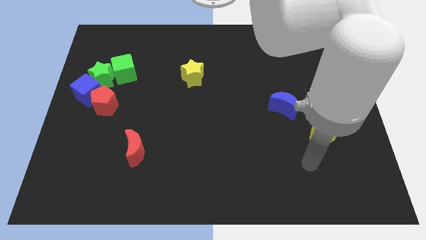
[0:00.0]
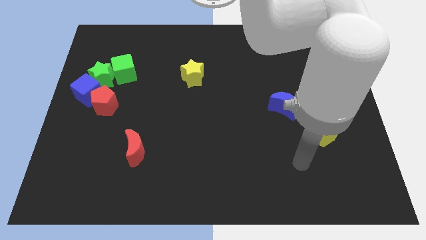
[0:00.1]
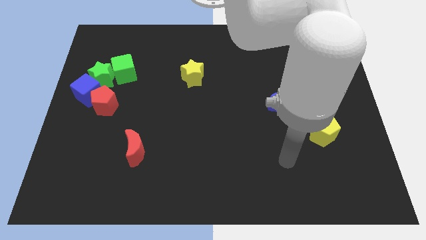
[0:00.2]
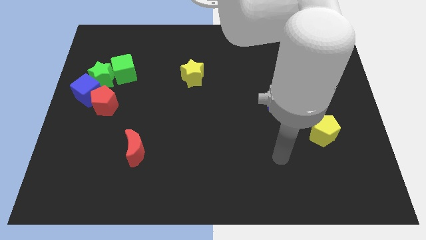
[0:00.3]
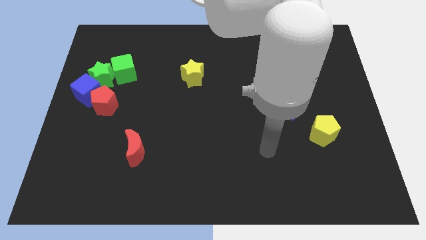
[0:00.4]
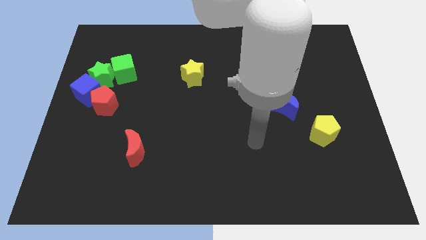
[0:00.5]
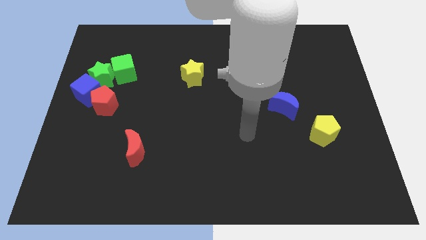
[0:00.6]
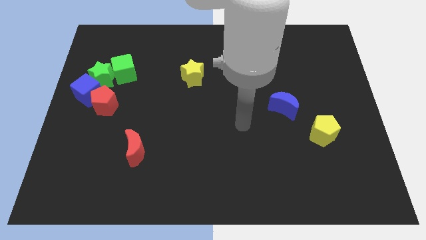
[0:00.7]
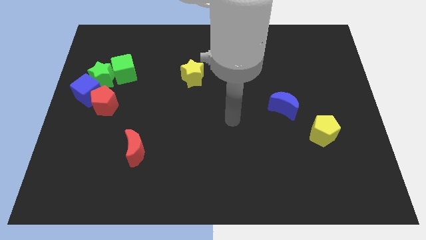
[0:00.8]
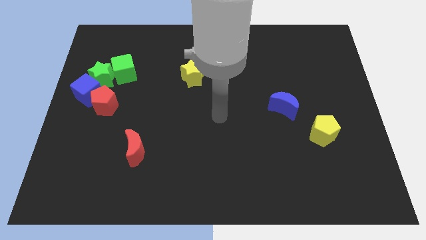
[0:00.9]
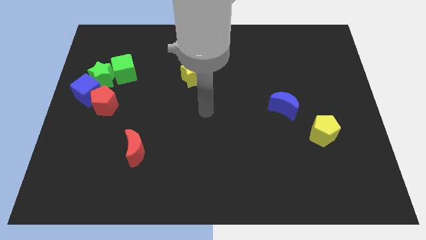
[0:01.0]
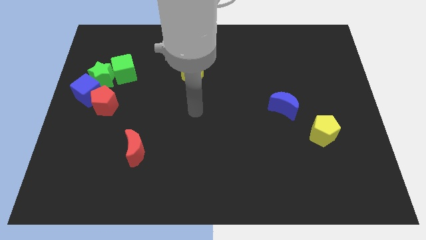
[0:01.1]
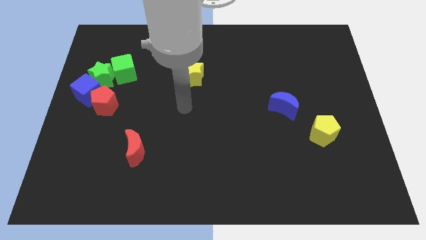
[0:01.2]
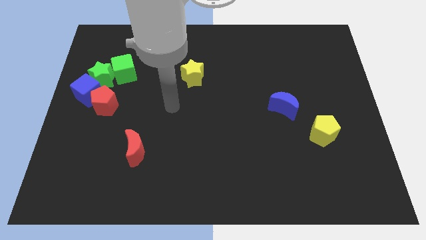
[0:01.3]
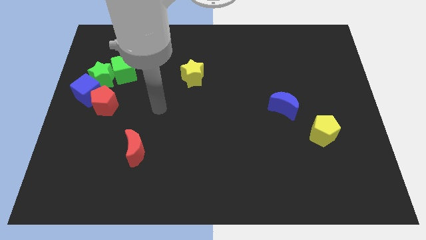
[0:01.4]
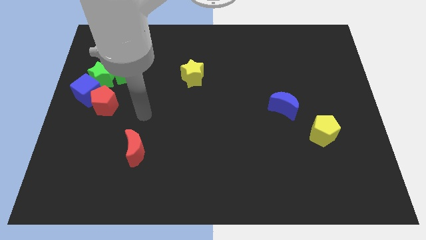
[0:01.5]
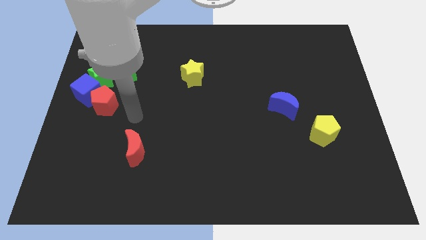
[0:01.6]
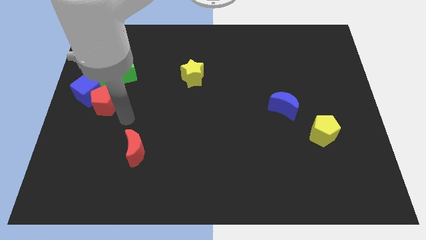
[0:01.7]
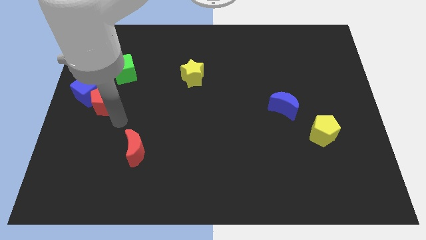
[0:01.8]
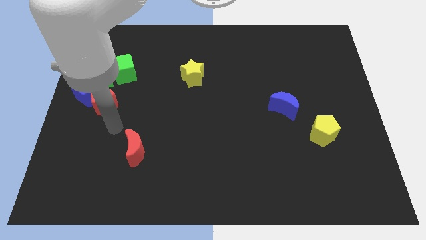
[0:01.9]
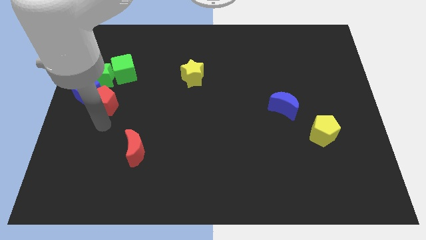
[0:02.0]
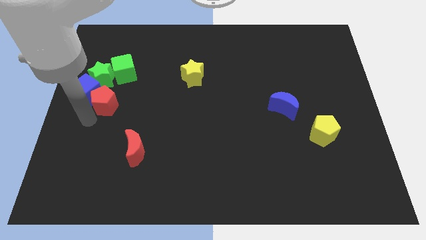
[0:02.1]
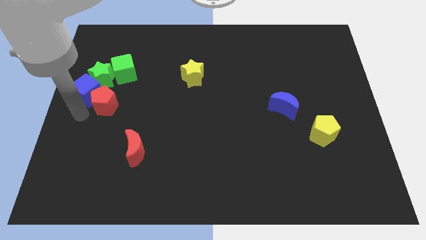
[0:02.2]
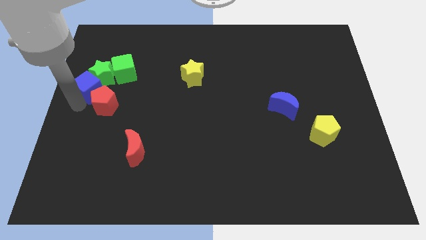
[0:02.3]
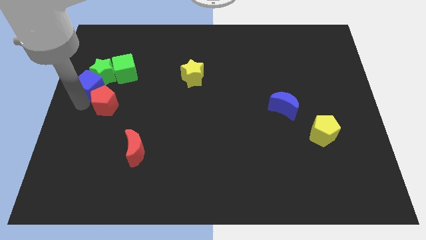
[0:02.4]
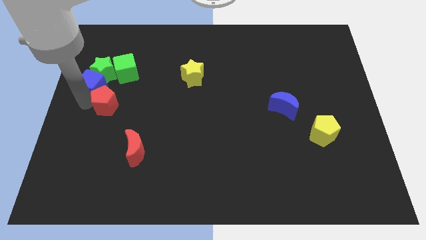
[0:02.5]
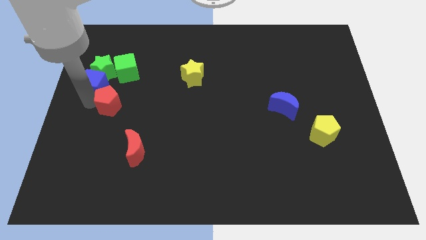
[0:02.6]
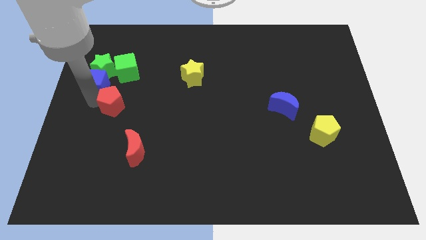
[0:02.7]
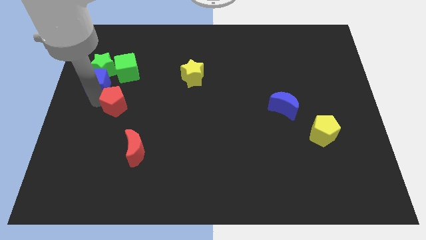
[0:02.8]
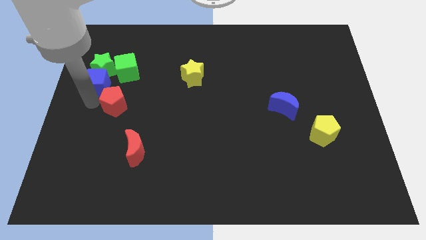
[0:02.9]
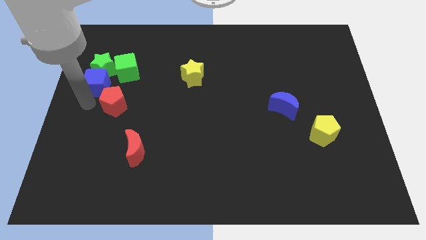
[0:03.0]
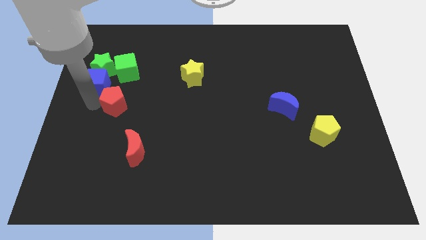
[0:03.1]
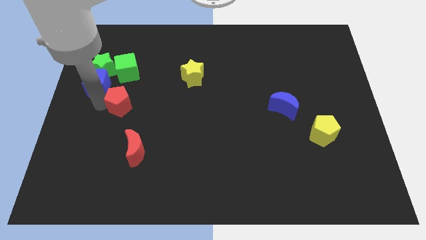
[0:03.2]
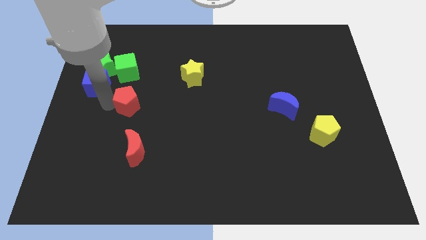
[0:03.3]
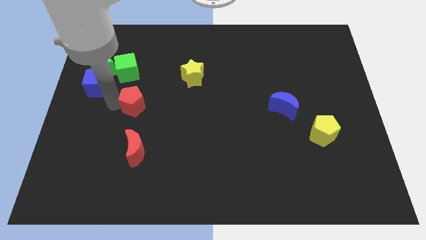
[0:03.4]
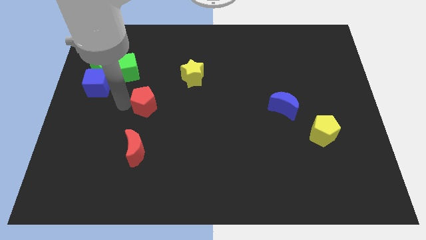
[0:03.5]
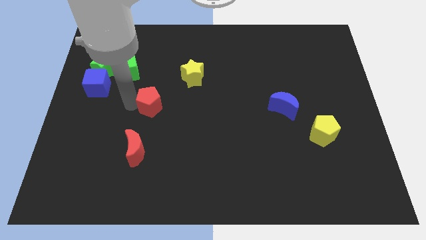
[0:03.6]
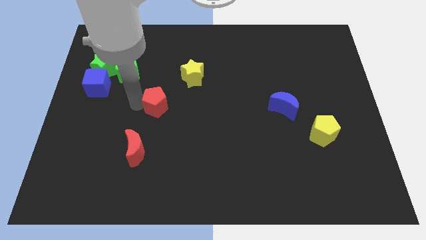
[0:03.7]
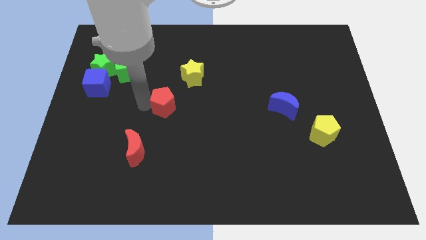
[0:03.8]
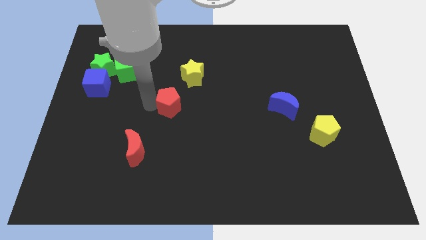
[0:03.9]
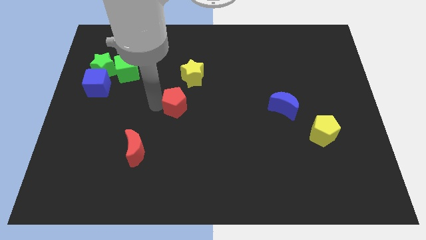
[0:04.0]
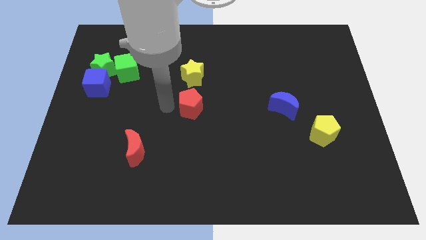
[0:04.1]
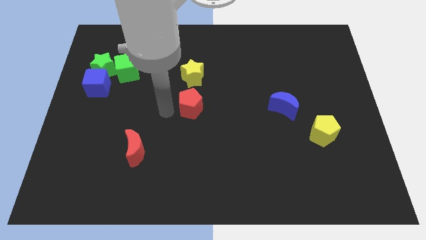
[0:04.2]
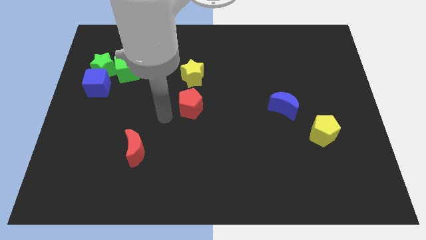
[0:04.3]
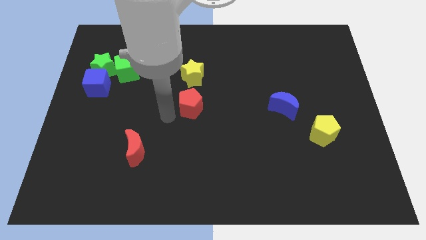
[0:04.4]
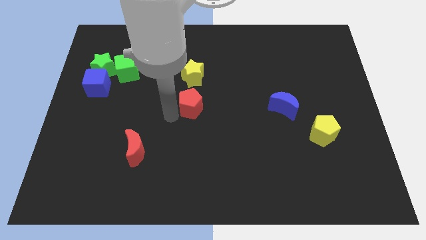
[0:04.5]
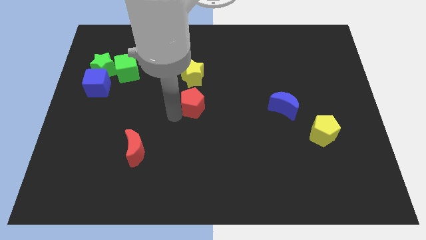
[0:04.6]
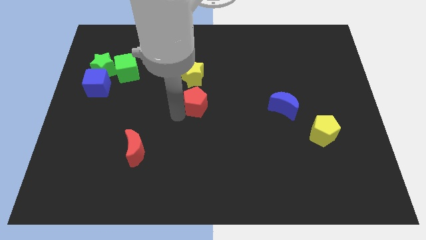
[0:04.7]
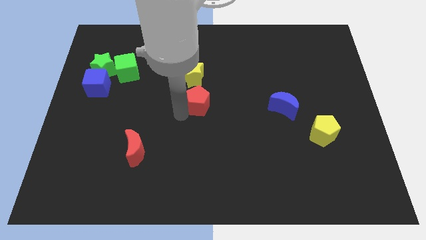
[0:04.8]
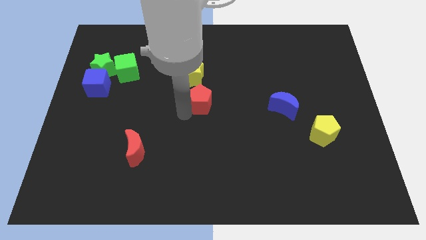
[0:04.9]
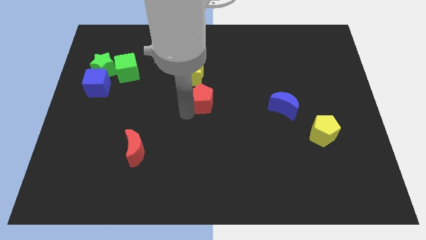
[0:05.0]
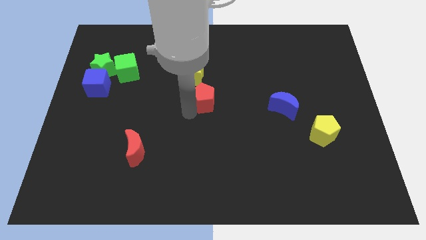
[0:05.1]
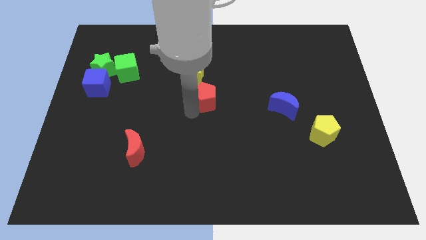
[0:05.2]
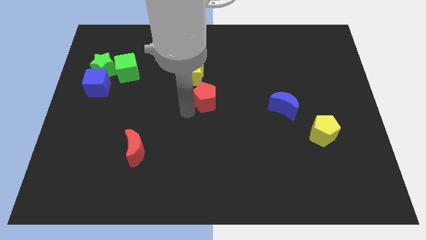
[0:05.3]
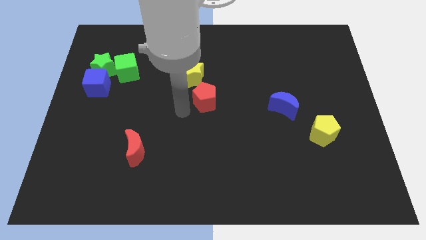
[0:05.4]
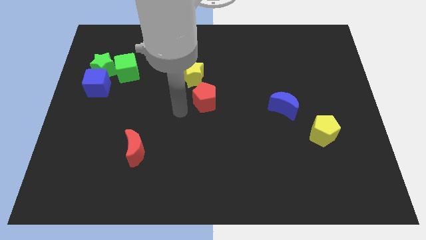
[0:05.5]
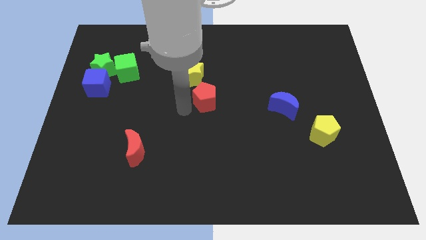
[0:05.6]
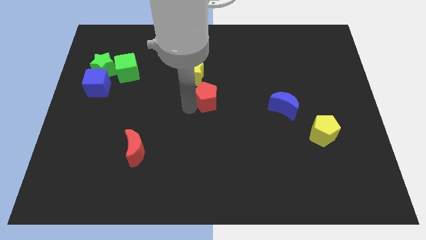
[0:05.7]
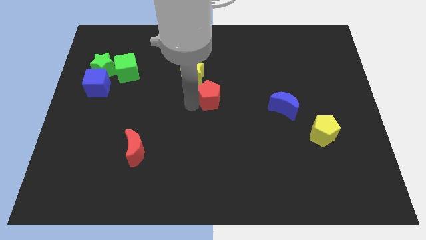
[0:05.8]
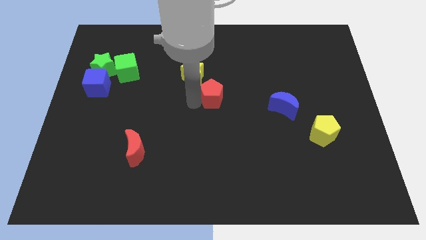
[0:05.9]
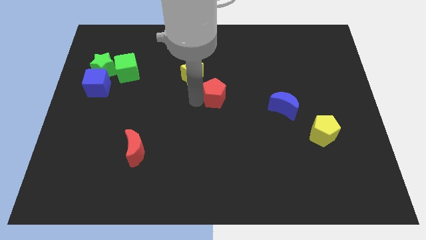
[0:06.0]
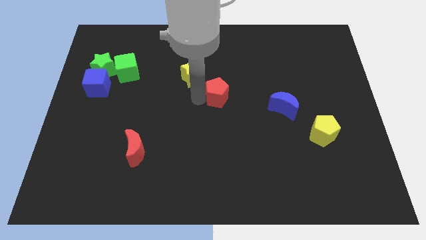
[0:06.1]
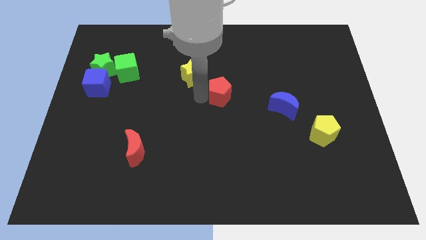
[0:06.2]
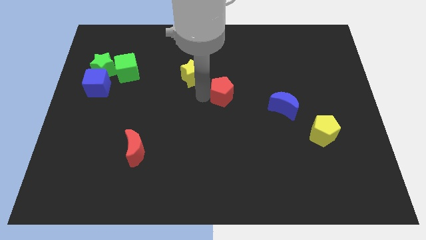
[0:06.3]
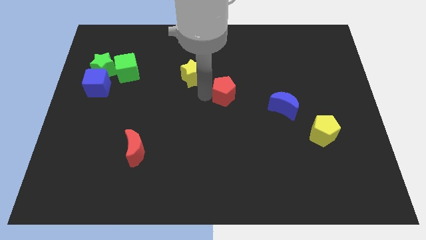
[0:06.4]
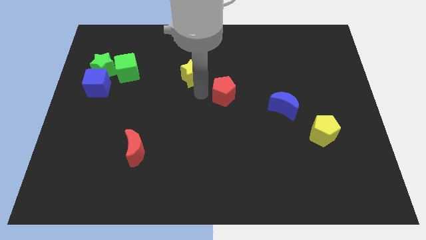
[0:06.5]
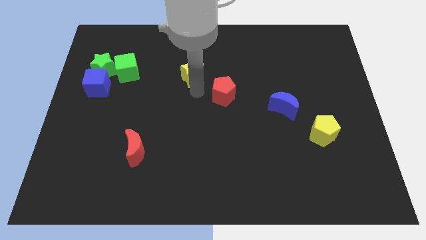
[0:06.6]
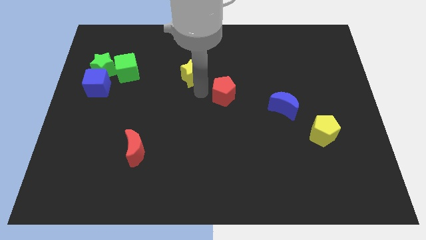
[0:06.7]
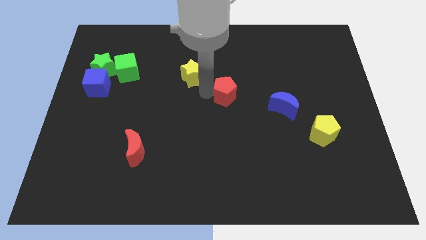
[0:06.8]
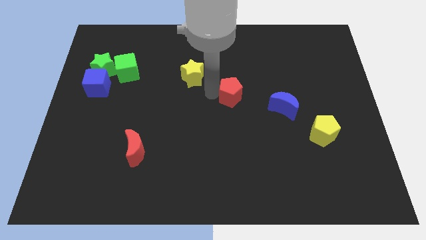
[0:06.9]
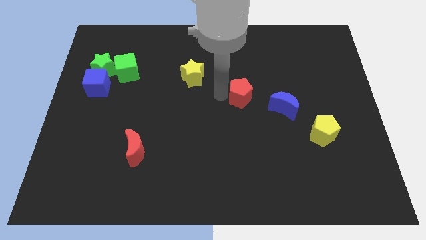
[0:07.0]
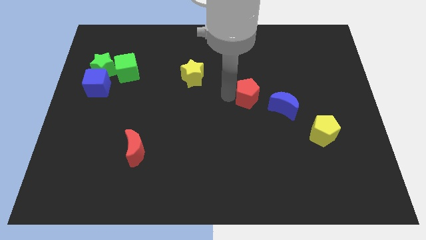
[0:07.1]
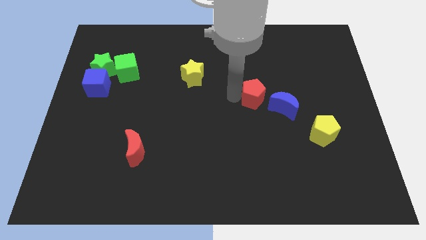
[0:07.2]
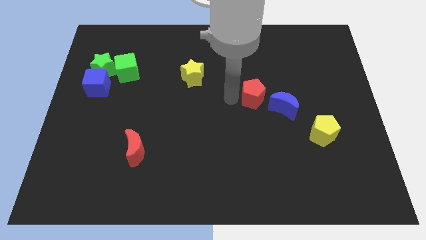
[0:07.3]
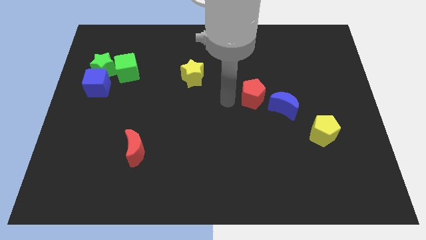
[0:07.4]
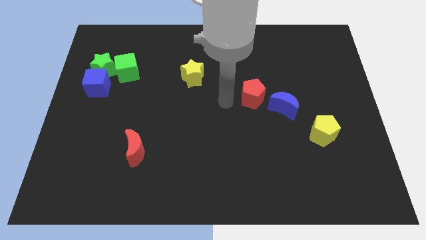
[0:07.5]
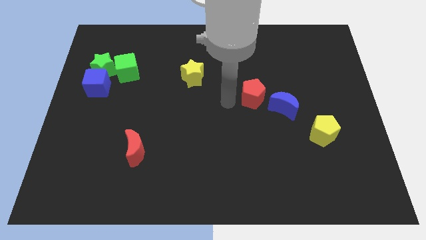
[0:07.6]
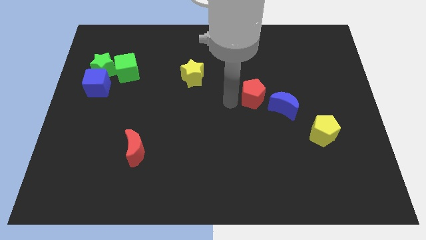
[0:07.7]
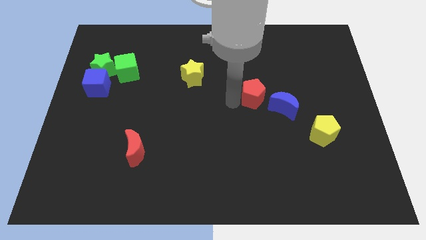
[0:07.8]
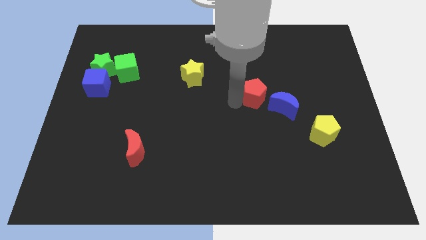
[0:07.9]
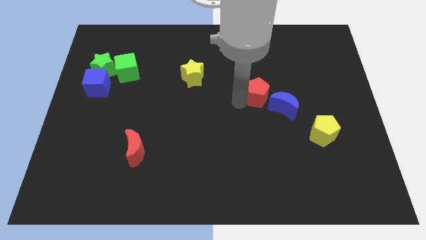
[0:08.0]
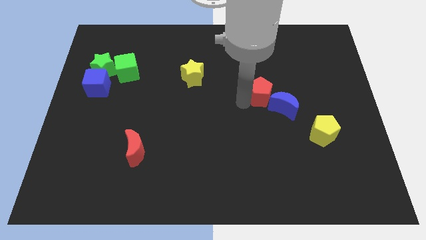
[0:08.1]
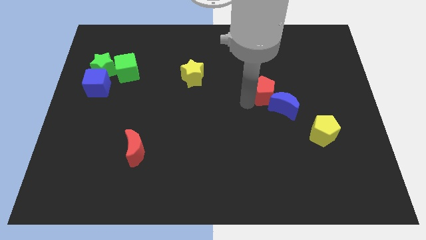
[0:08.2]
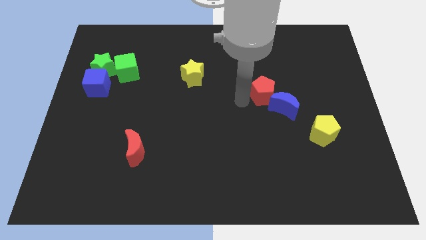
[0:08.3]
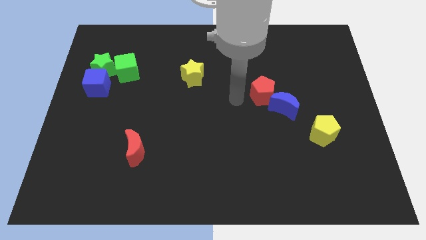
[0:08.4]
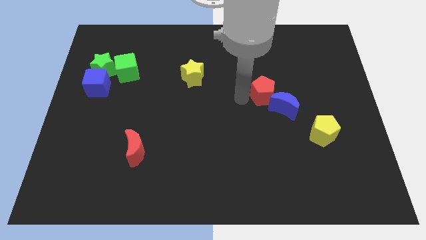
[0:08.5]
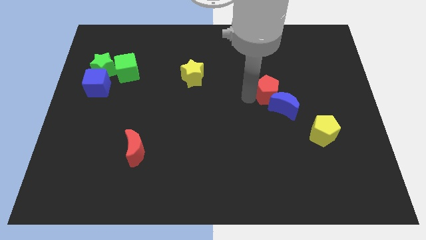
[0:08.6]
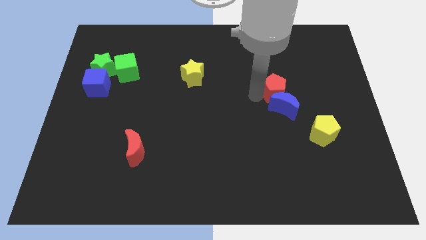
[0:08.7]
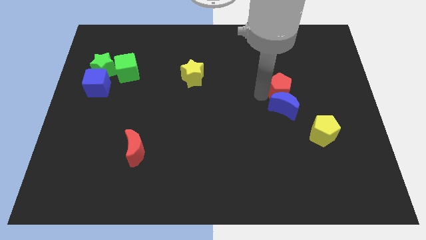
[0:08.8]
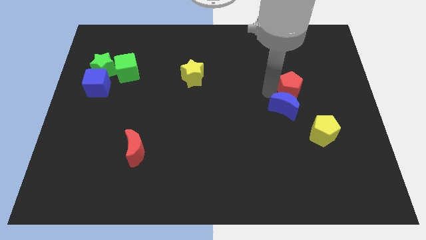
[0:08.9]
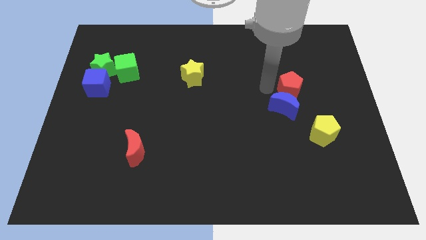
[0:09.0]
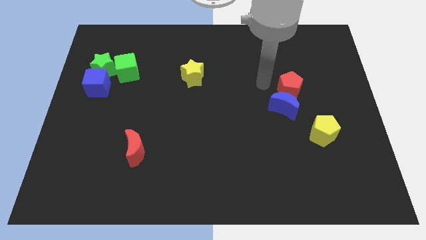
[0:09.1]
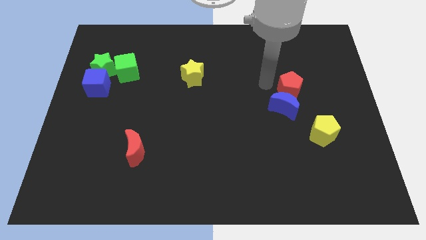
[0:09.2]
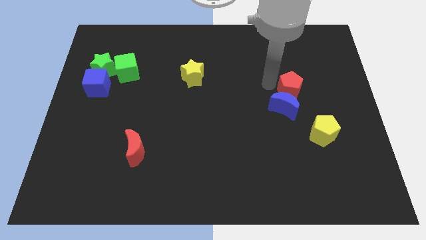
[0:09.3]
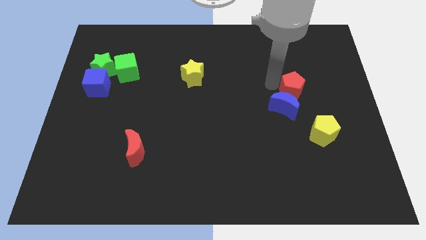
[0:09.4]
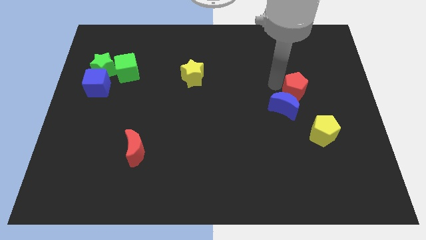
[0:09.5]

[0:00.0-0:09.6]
slide the red pentagon to the top of the yellow pentagon
